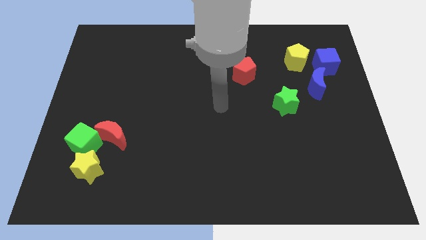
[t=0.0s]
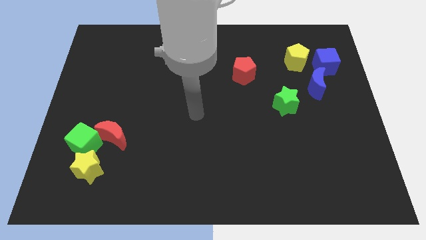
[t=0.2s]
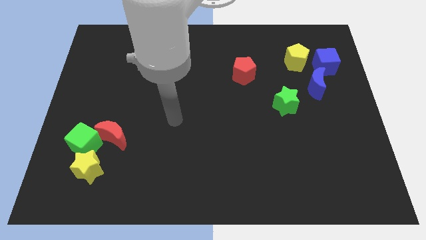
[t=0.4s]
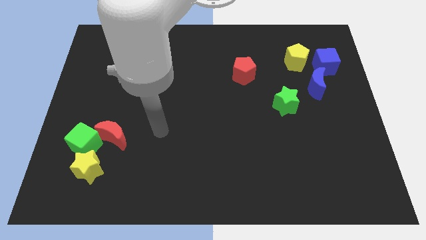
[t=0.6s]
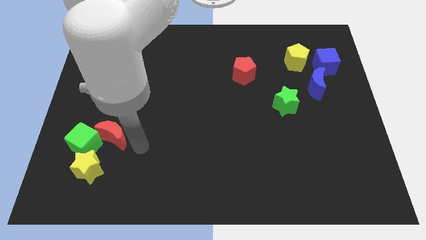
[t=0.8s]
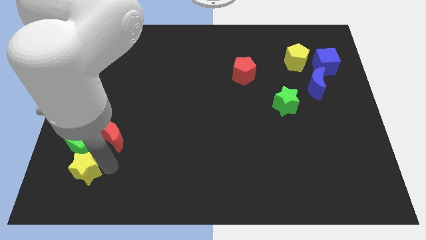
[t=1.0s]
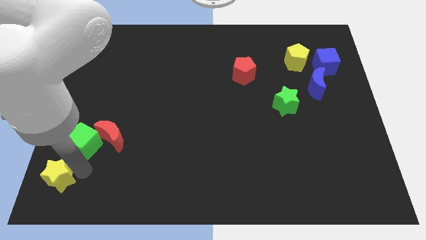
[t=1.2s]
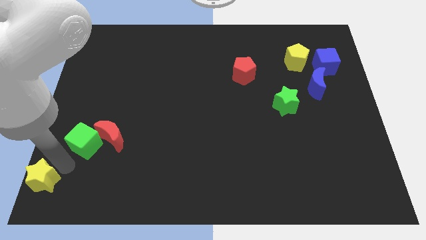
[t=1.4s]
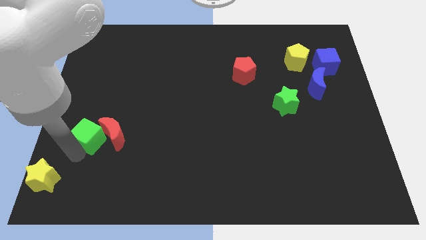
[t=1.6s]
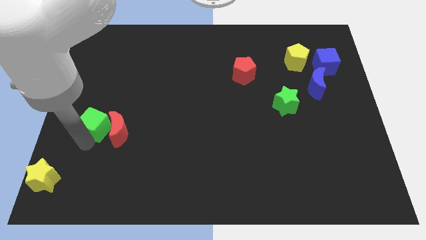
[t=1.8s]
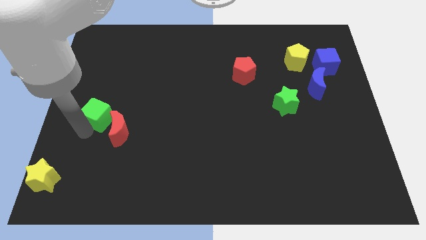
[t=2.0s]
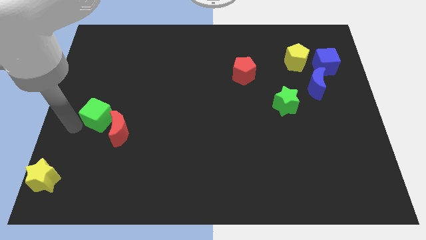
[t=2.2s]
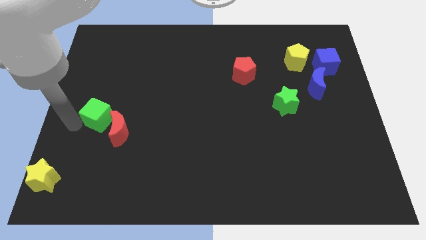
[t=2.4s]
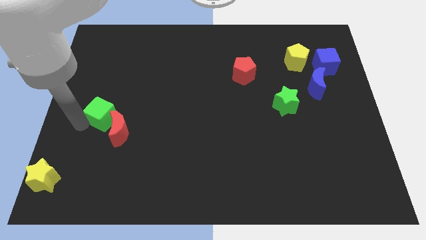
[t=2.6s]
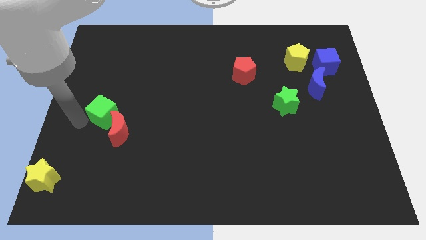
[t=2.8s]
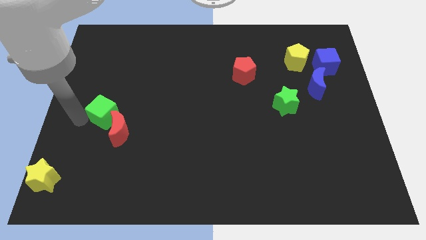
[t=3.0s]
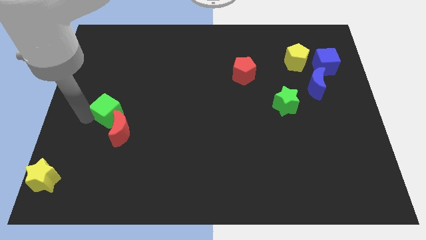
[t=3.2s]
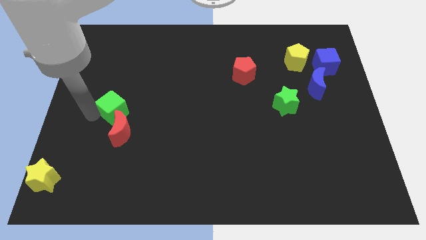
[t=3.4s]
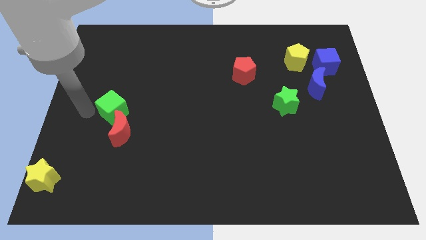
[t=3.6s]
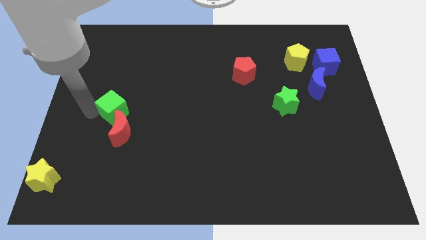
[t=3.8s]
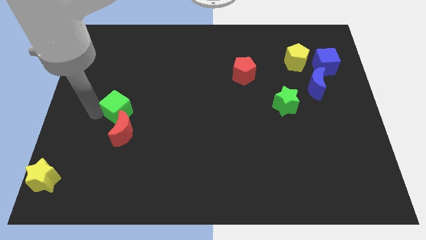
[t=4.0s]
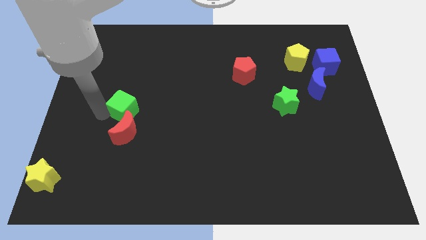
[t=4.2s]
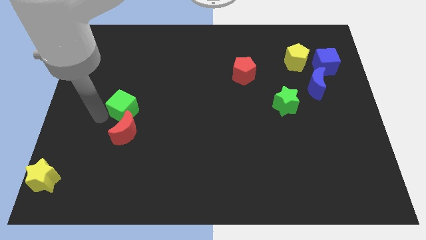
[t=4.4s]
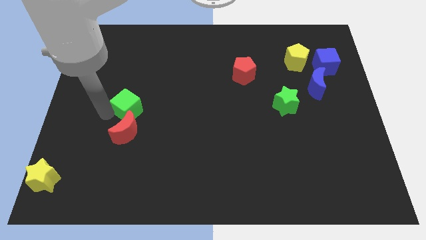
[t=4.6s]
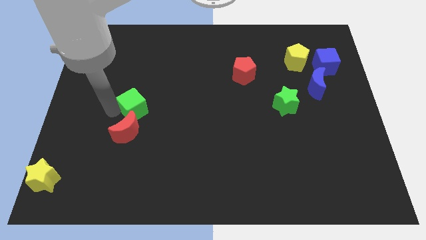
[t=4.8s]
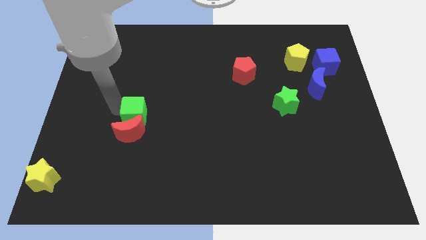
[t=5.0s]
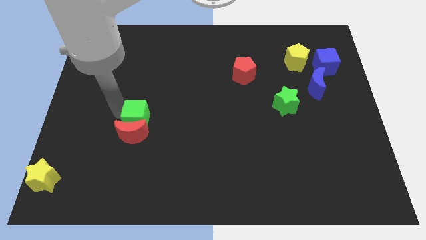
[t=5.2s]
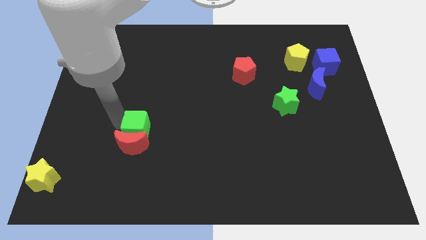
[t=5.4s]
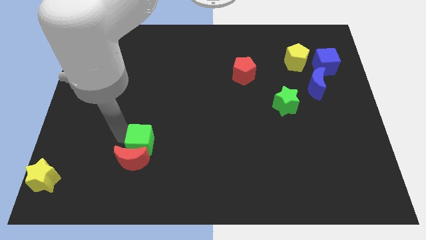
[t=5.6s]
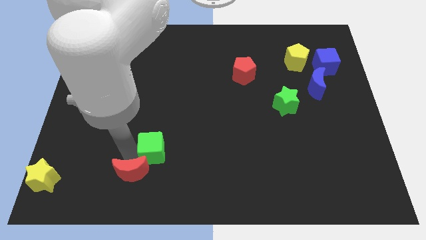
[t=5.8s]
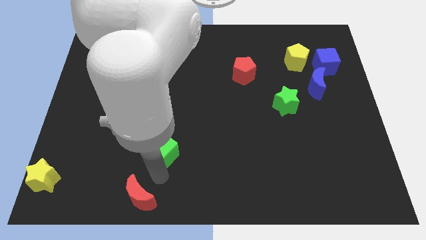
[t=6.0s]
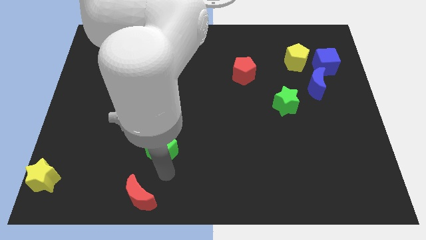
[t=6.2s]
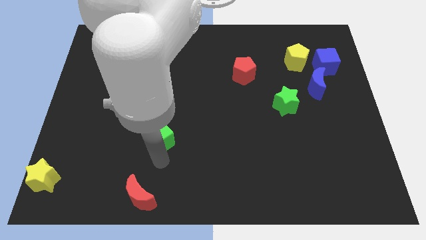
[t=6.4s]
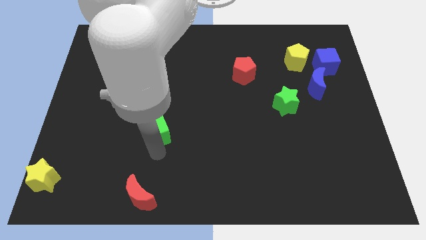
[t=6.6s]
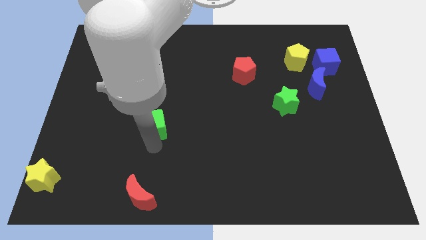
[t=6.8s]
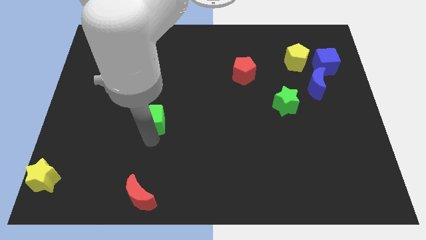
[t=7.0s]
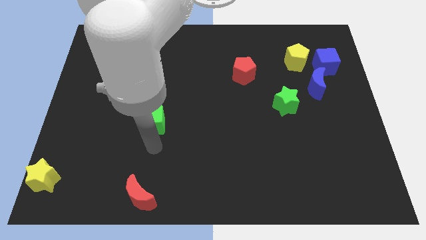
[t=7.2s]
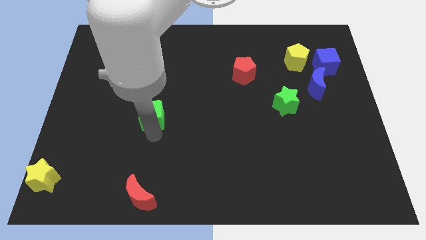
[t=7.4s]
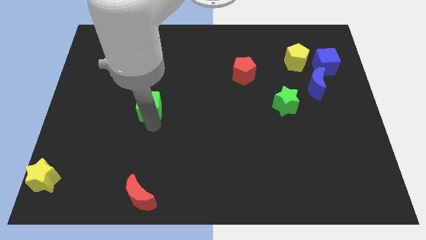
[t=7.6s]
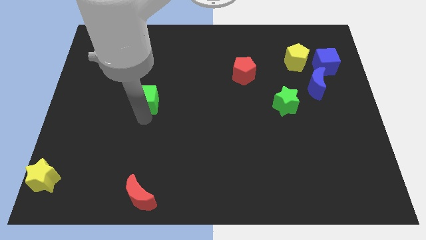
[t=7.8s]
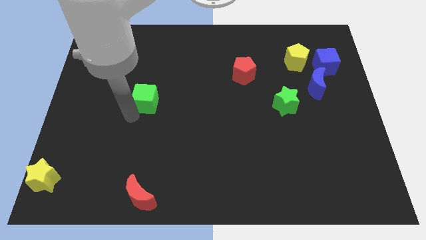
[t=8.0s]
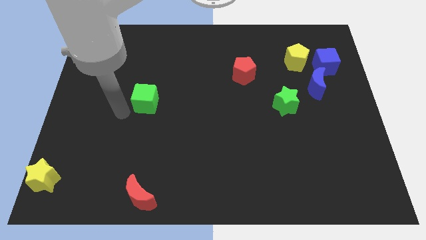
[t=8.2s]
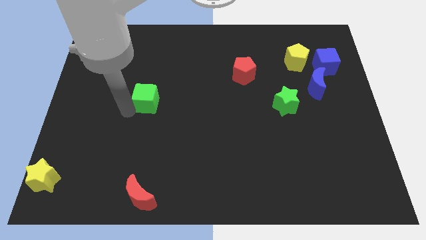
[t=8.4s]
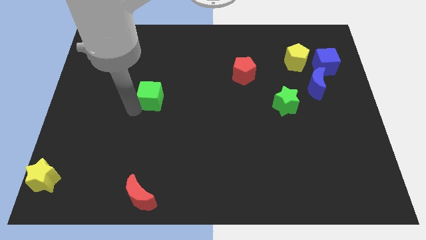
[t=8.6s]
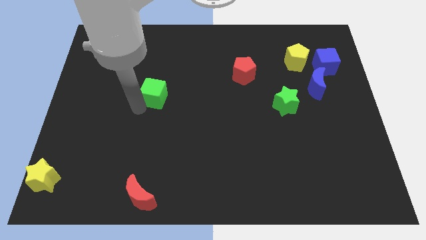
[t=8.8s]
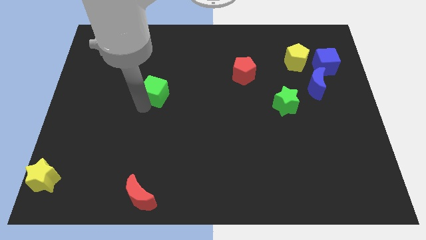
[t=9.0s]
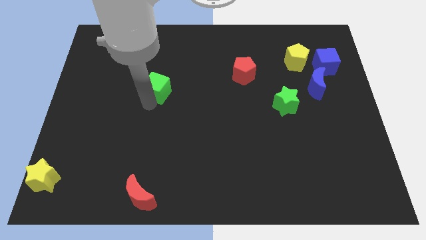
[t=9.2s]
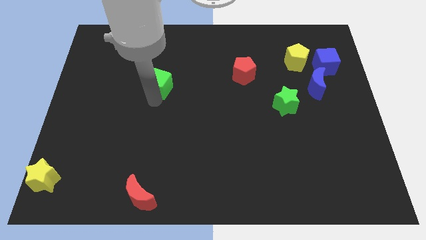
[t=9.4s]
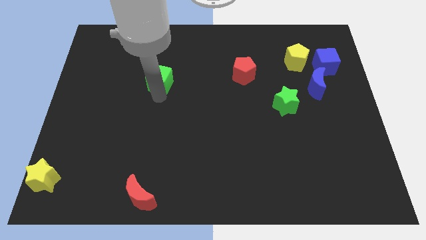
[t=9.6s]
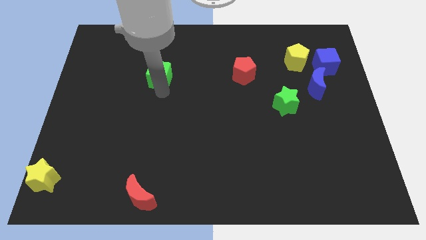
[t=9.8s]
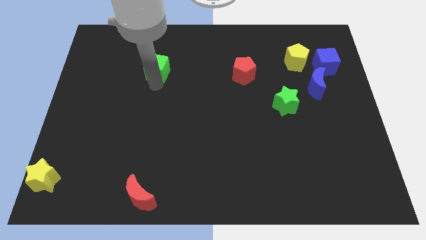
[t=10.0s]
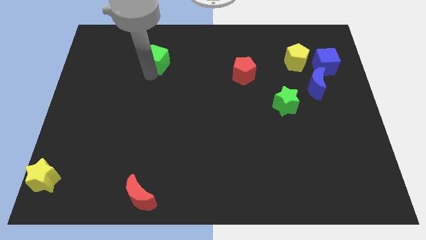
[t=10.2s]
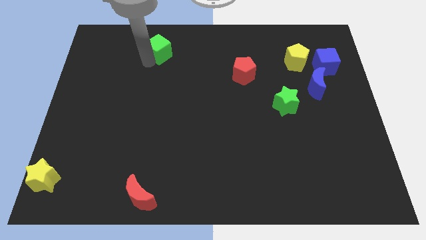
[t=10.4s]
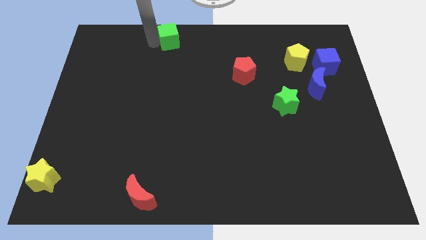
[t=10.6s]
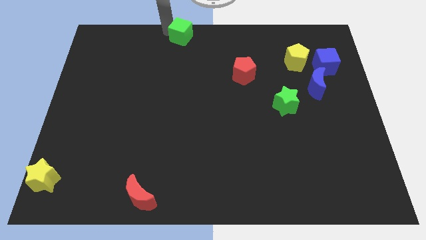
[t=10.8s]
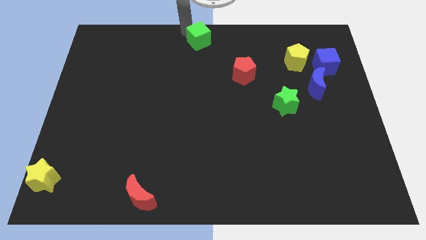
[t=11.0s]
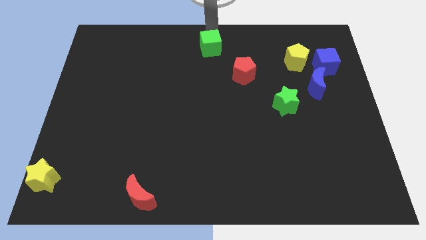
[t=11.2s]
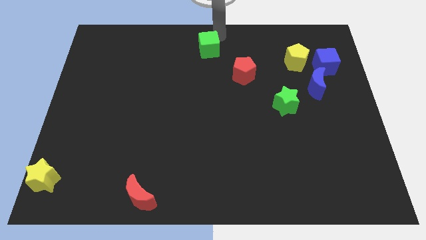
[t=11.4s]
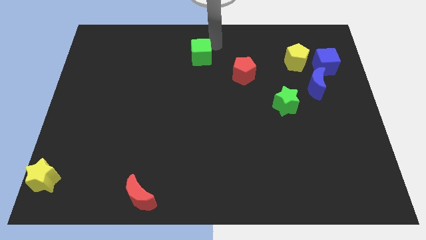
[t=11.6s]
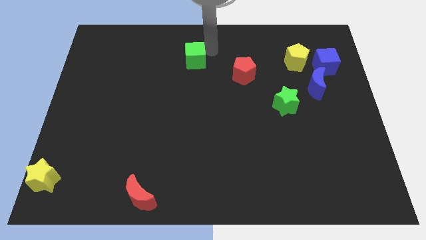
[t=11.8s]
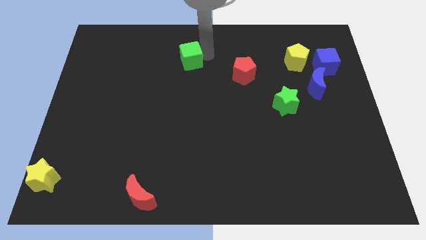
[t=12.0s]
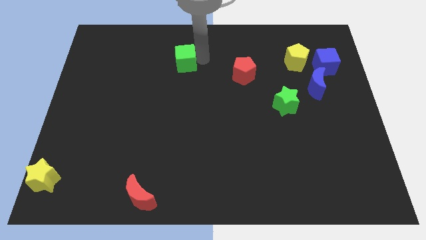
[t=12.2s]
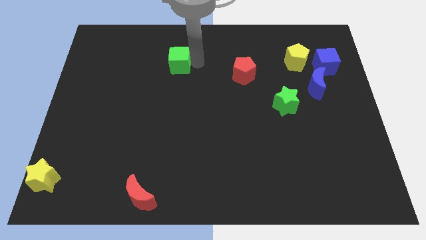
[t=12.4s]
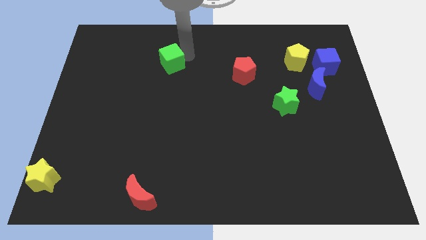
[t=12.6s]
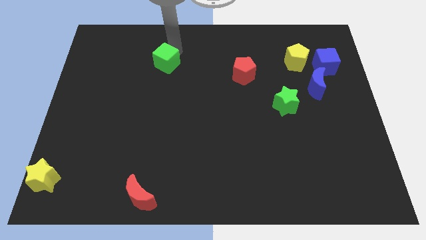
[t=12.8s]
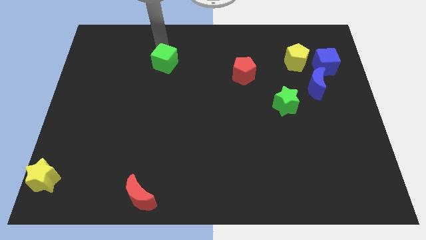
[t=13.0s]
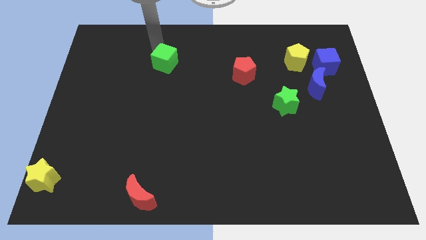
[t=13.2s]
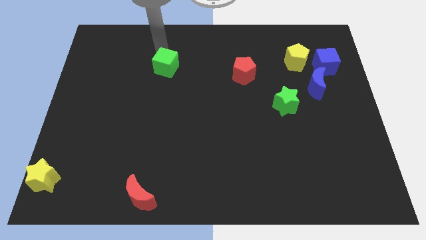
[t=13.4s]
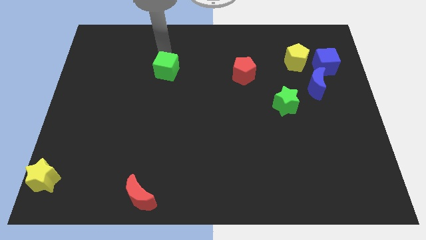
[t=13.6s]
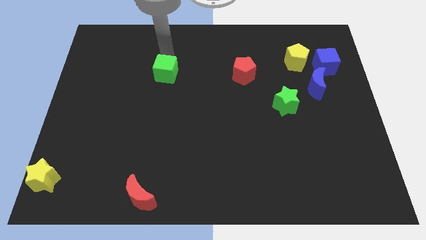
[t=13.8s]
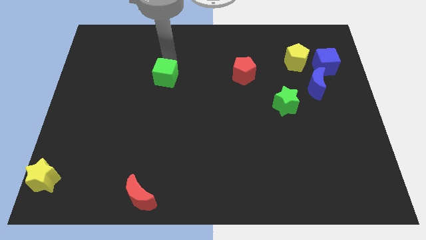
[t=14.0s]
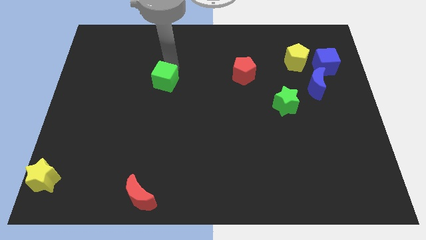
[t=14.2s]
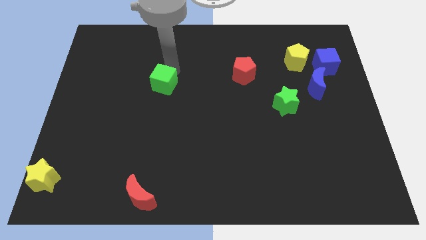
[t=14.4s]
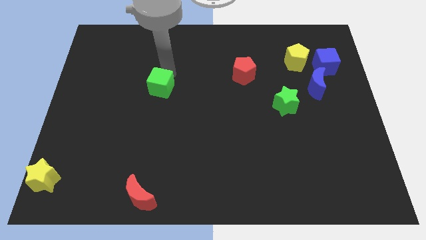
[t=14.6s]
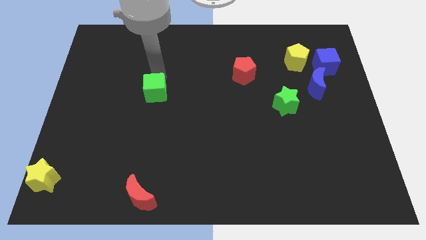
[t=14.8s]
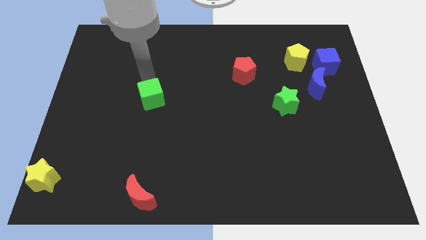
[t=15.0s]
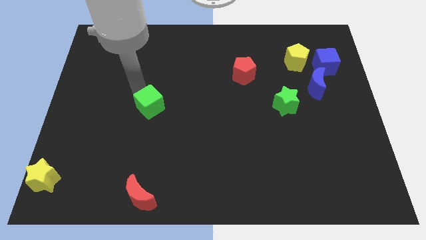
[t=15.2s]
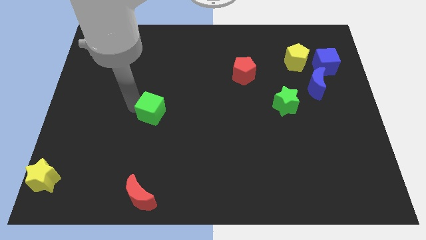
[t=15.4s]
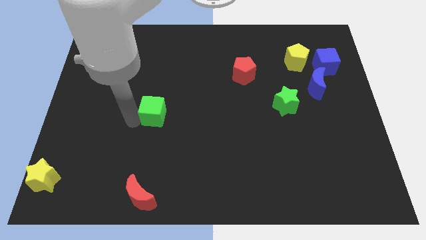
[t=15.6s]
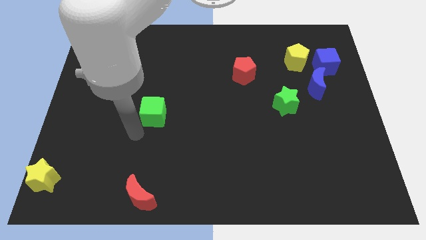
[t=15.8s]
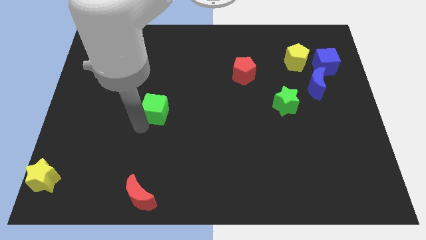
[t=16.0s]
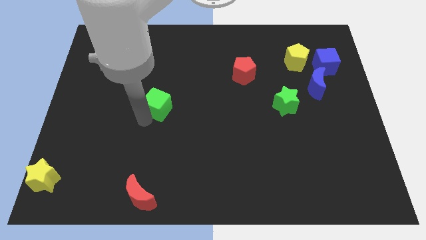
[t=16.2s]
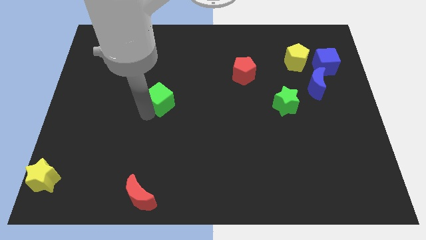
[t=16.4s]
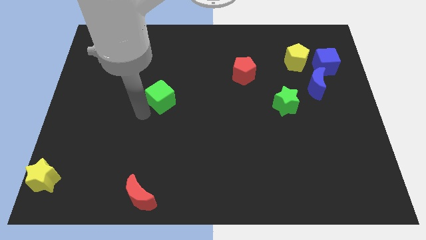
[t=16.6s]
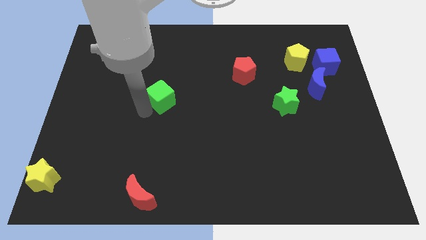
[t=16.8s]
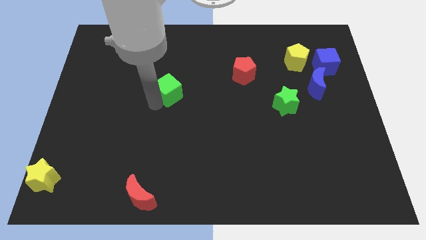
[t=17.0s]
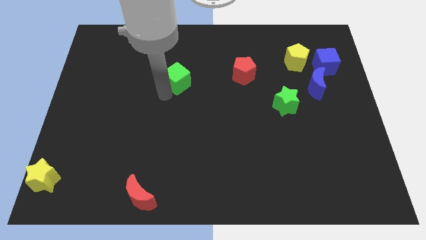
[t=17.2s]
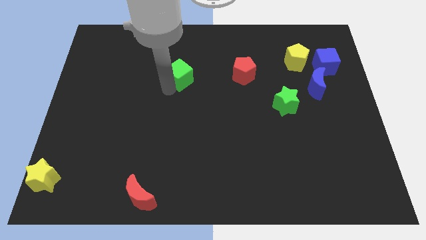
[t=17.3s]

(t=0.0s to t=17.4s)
slide the green cube just left of the red pentagon
